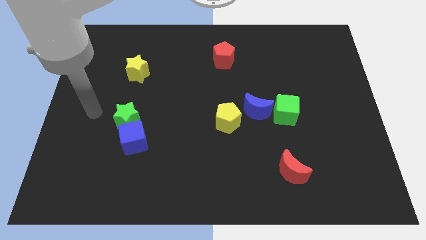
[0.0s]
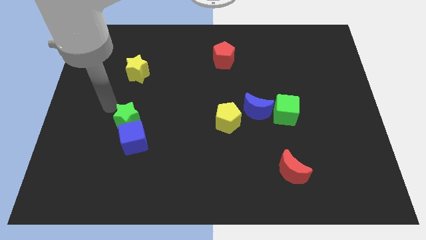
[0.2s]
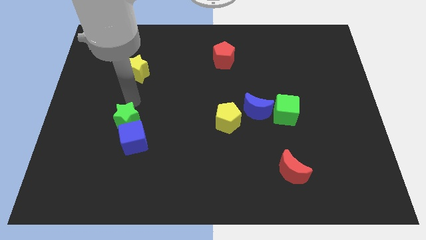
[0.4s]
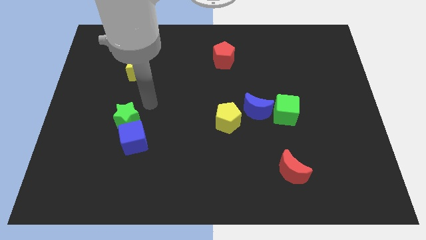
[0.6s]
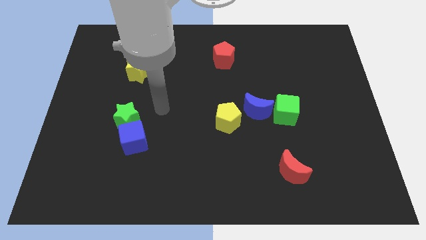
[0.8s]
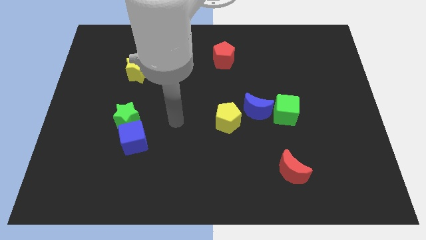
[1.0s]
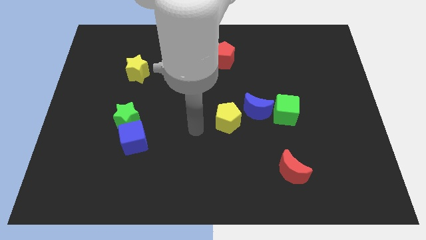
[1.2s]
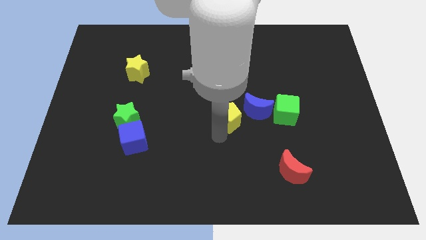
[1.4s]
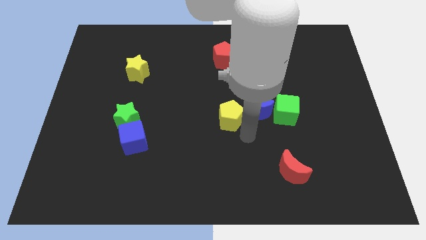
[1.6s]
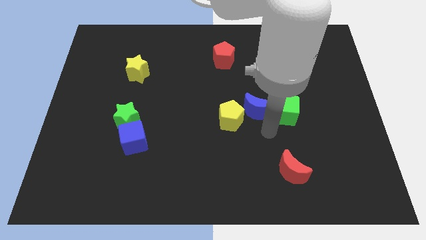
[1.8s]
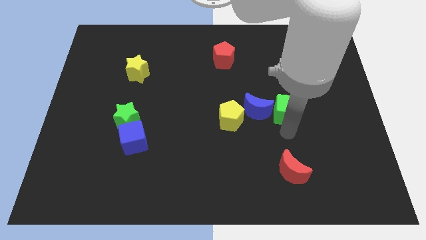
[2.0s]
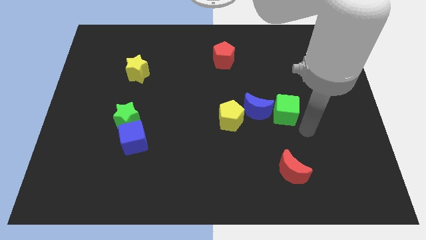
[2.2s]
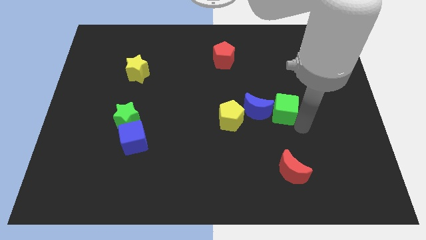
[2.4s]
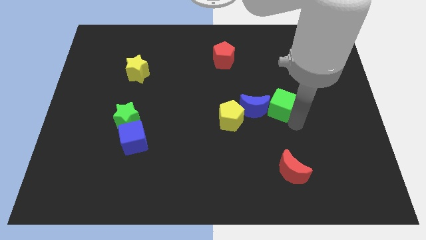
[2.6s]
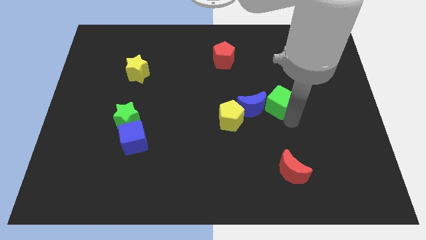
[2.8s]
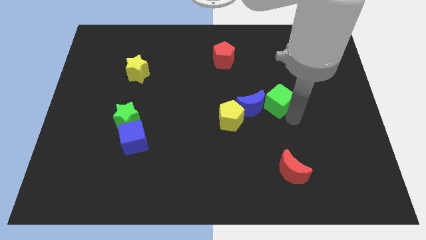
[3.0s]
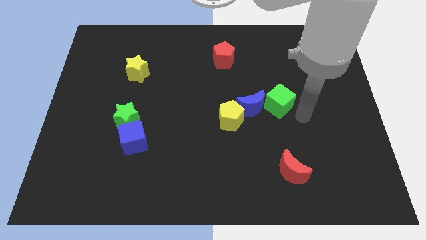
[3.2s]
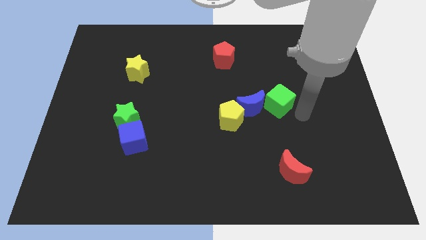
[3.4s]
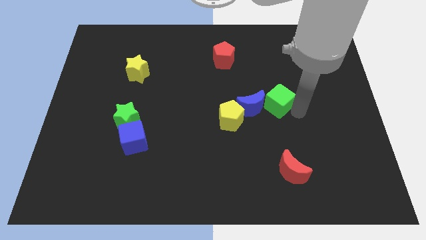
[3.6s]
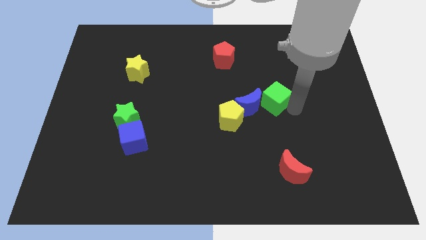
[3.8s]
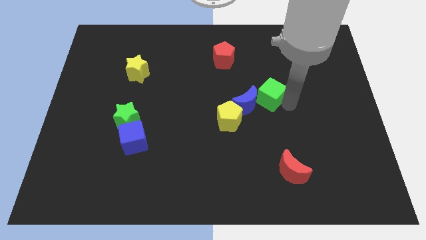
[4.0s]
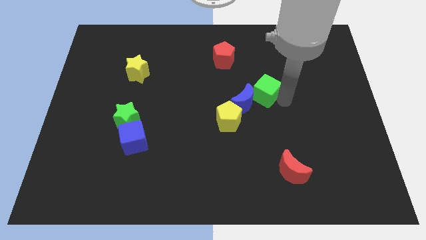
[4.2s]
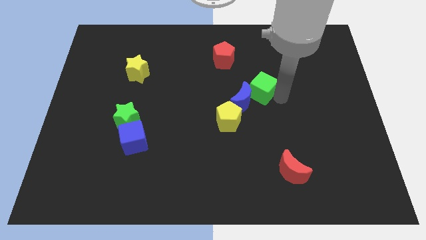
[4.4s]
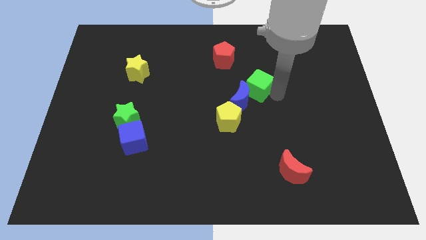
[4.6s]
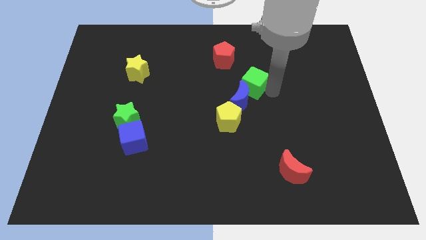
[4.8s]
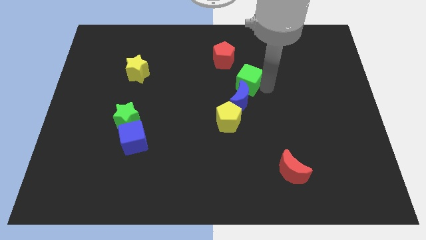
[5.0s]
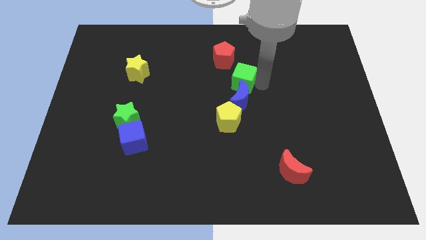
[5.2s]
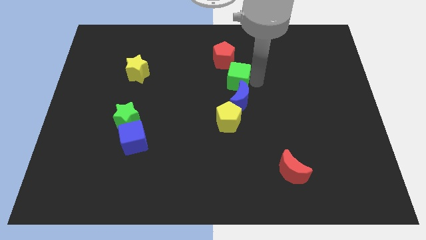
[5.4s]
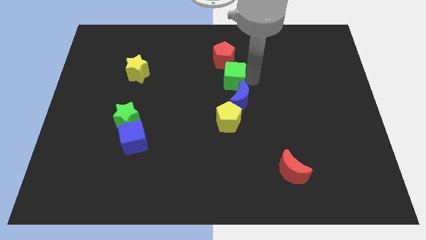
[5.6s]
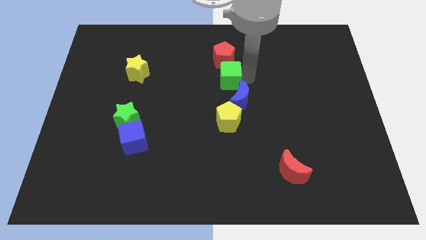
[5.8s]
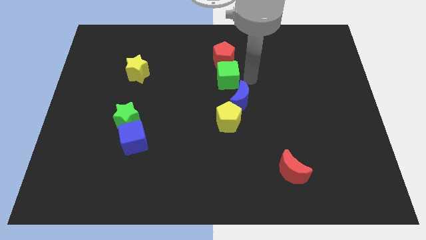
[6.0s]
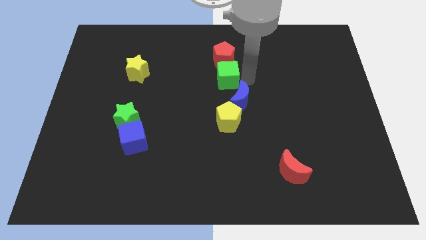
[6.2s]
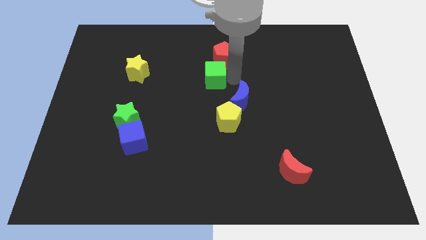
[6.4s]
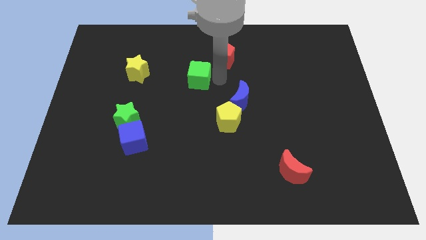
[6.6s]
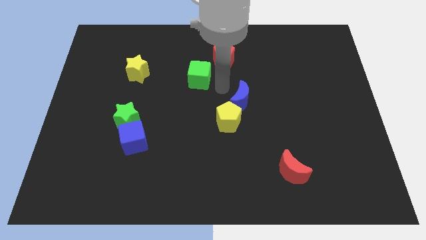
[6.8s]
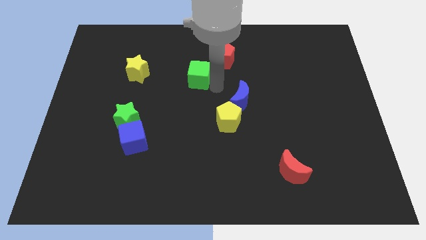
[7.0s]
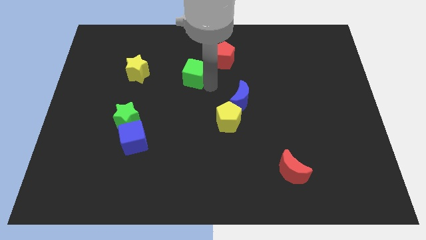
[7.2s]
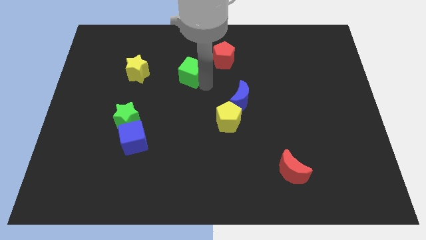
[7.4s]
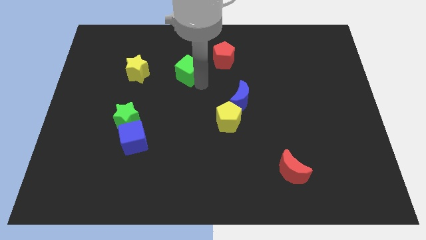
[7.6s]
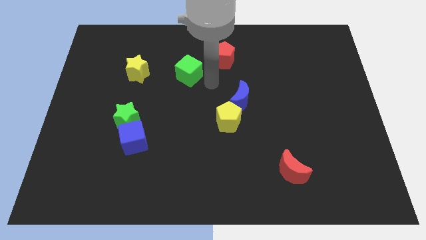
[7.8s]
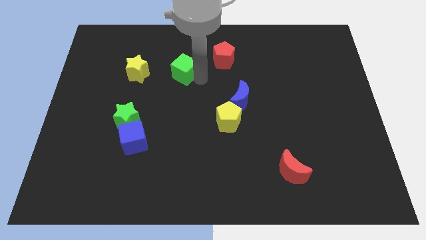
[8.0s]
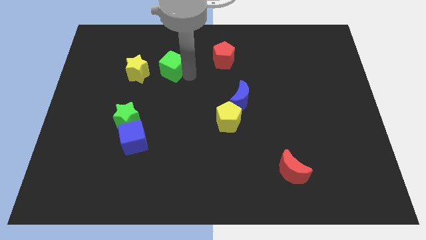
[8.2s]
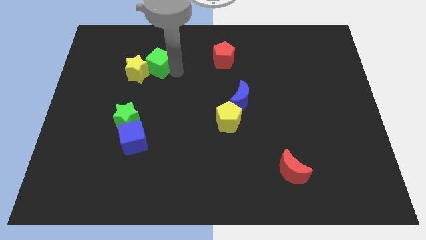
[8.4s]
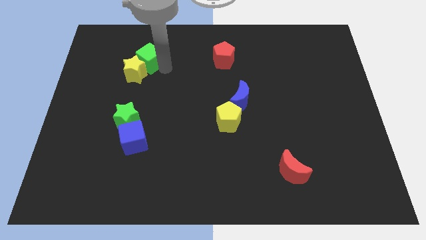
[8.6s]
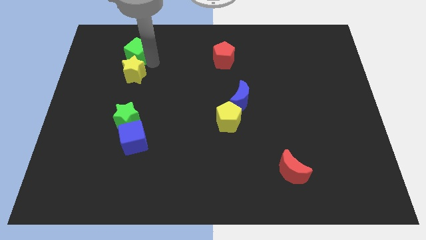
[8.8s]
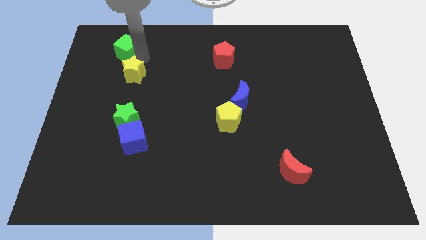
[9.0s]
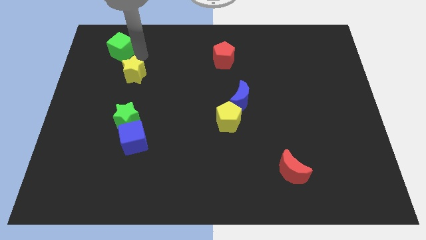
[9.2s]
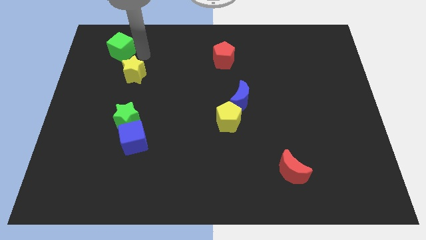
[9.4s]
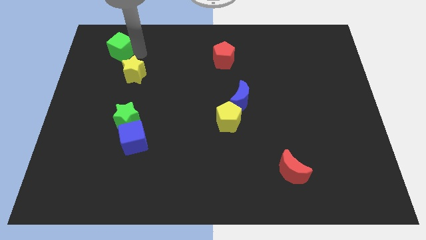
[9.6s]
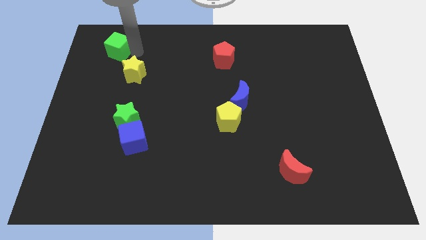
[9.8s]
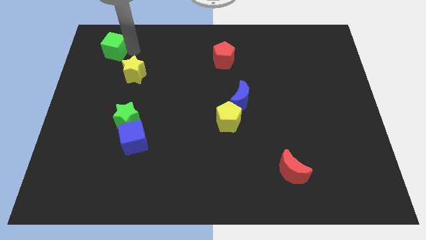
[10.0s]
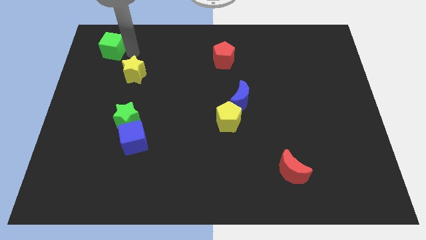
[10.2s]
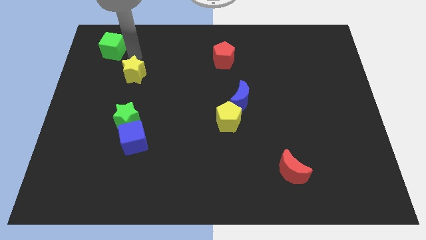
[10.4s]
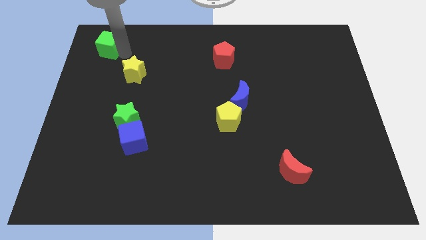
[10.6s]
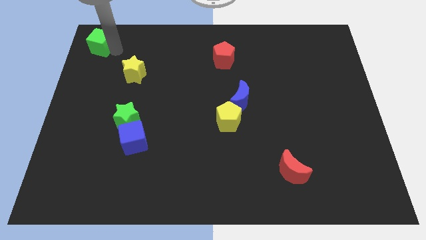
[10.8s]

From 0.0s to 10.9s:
push the green cube to the top left

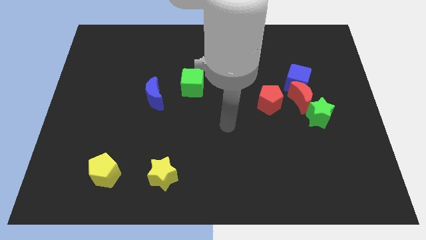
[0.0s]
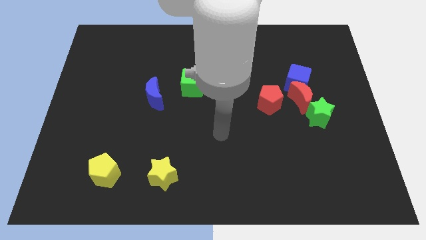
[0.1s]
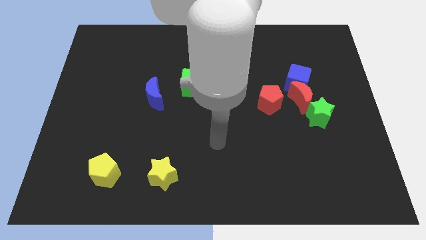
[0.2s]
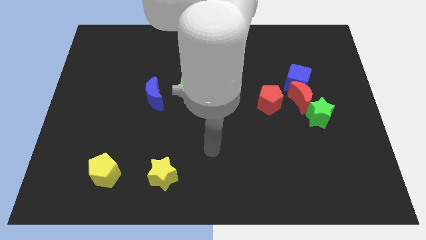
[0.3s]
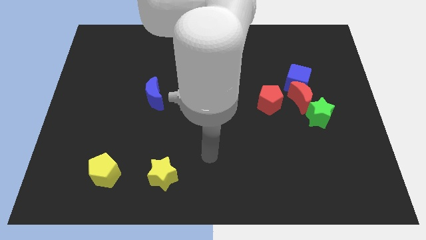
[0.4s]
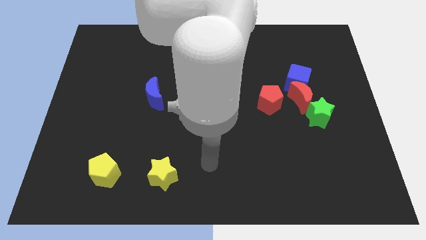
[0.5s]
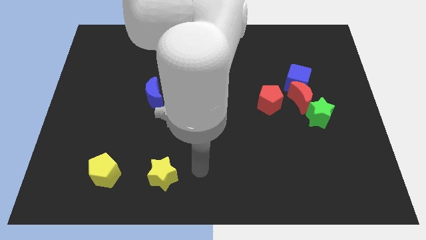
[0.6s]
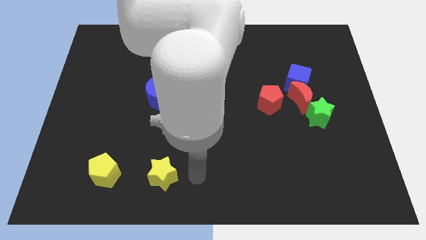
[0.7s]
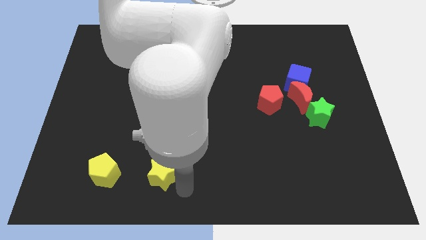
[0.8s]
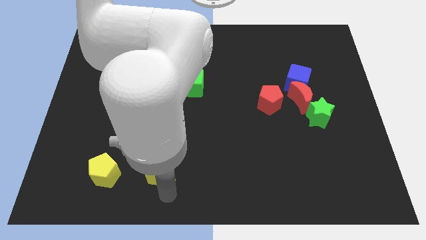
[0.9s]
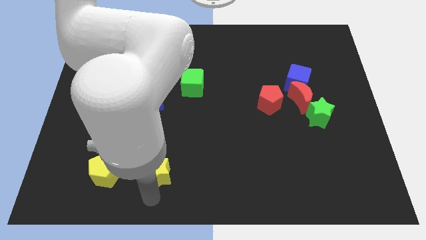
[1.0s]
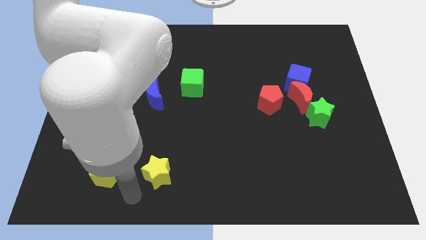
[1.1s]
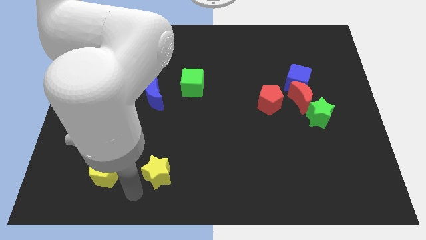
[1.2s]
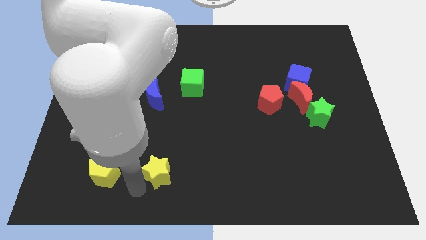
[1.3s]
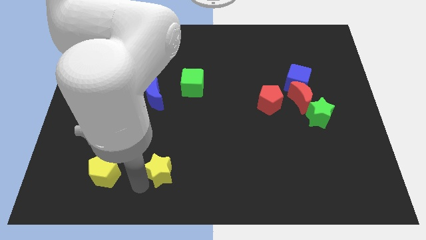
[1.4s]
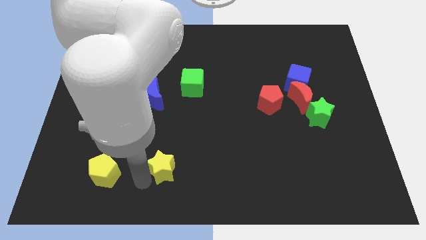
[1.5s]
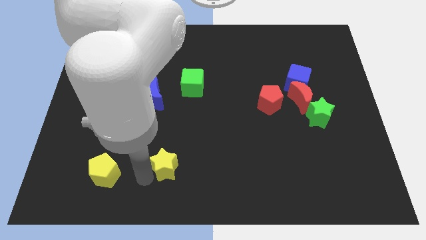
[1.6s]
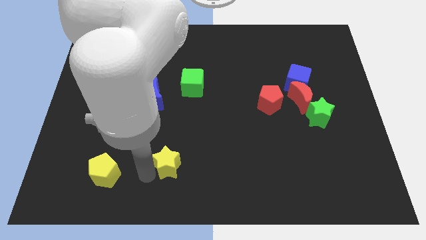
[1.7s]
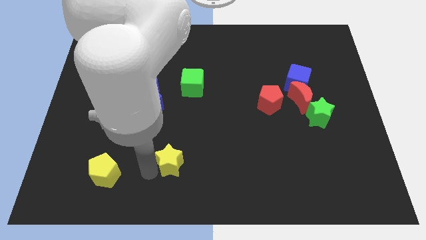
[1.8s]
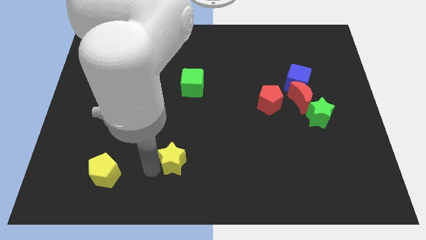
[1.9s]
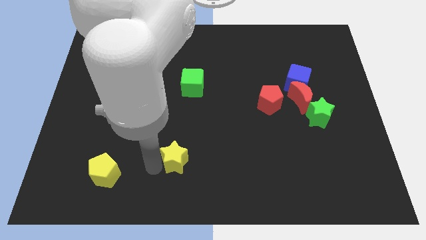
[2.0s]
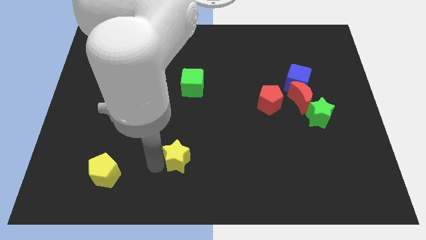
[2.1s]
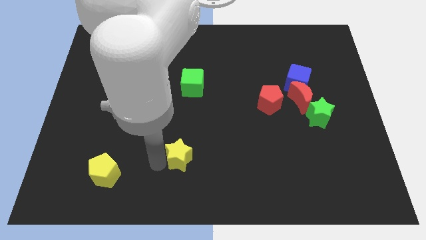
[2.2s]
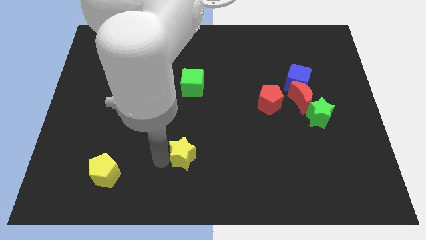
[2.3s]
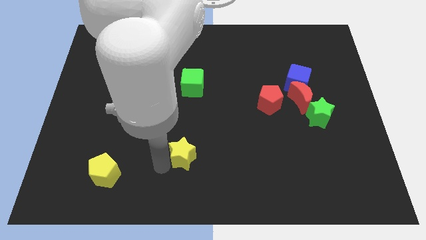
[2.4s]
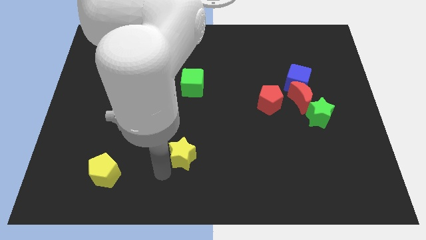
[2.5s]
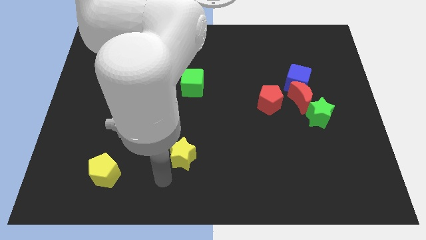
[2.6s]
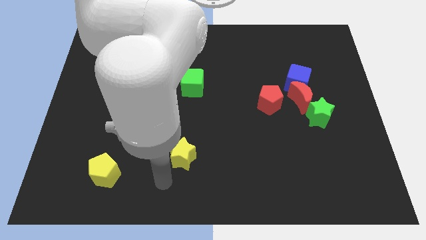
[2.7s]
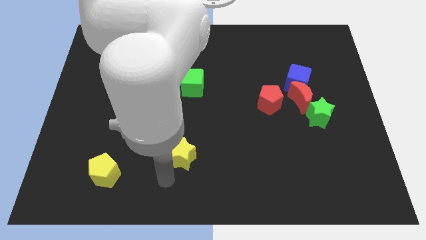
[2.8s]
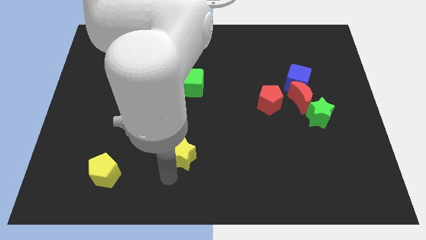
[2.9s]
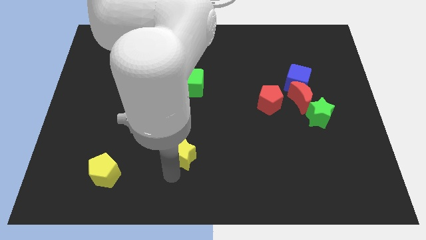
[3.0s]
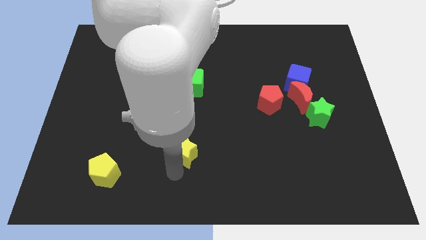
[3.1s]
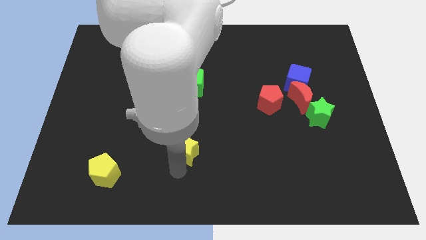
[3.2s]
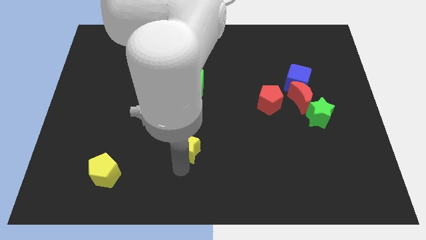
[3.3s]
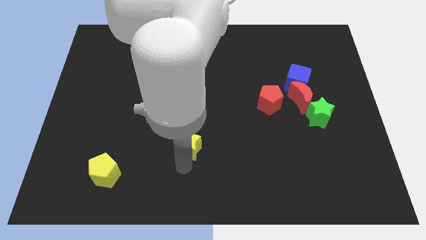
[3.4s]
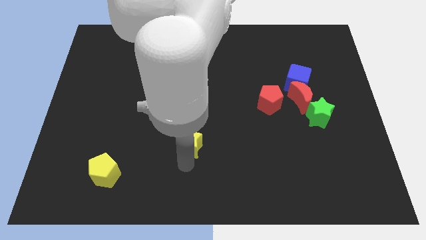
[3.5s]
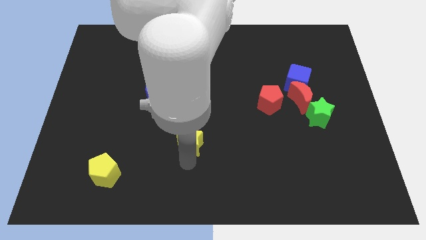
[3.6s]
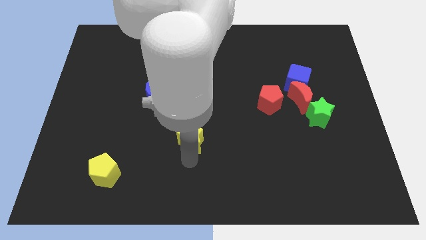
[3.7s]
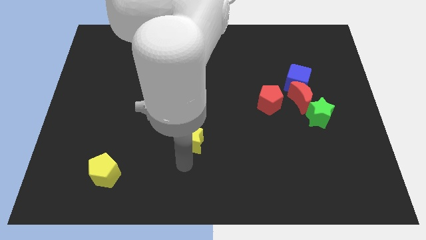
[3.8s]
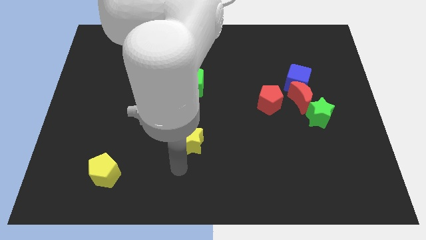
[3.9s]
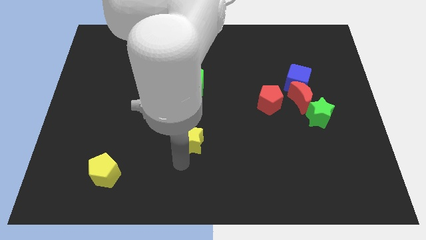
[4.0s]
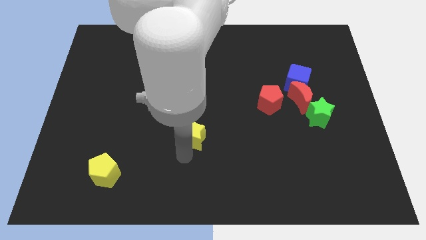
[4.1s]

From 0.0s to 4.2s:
push the yellow star to the center of the board
